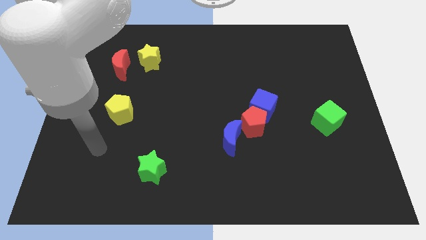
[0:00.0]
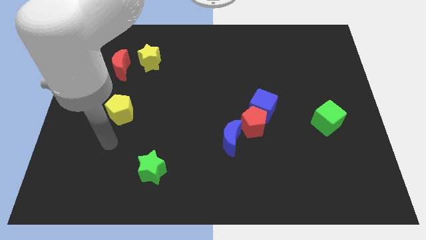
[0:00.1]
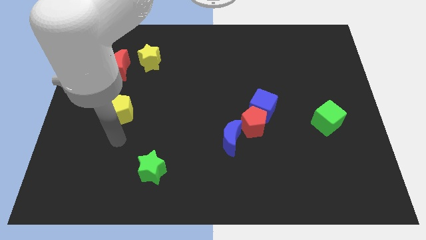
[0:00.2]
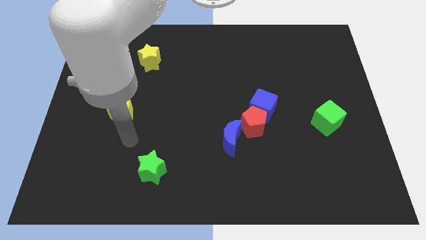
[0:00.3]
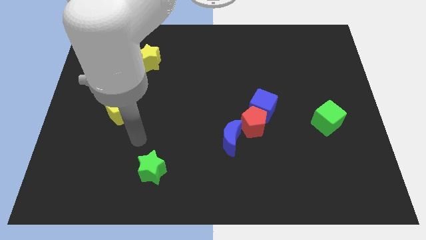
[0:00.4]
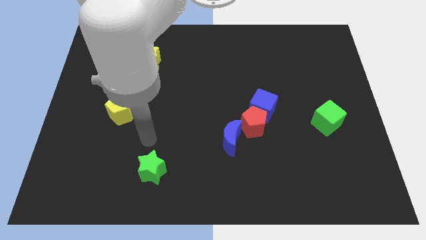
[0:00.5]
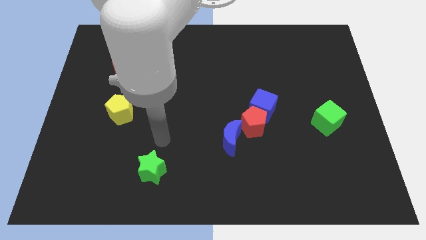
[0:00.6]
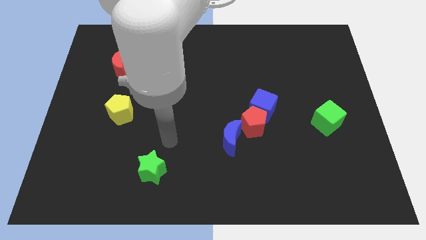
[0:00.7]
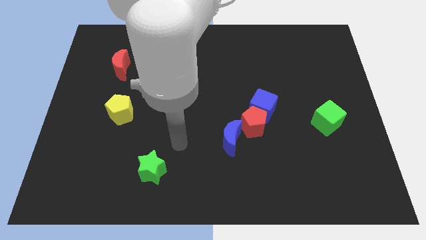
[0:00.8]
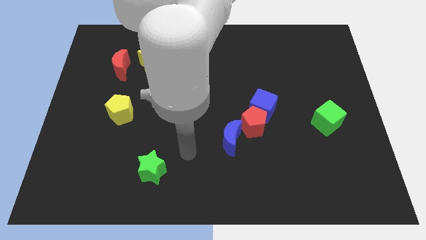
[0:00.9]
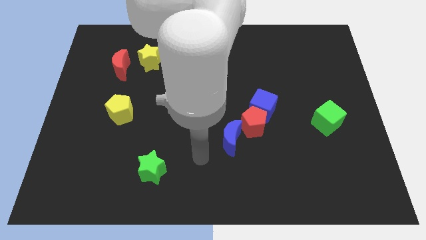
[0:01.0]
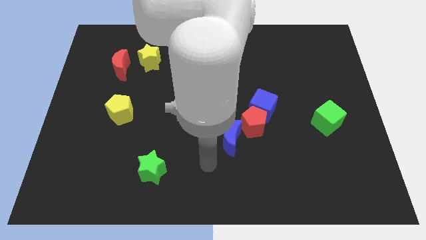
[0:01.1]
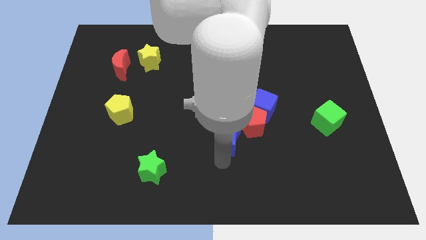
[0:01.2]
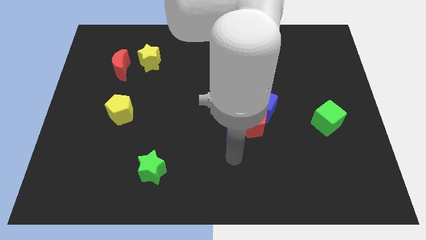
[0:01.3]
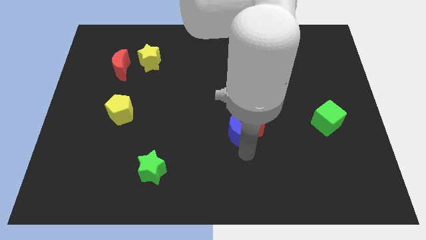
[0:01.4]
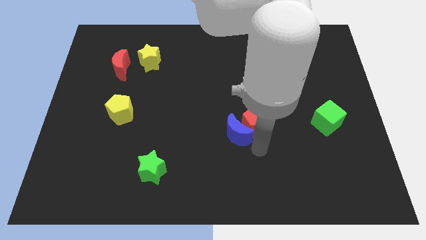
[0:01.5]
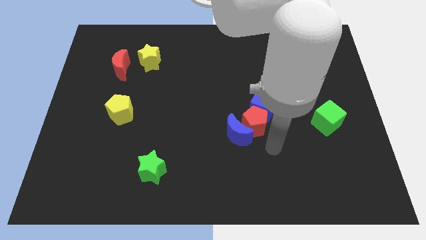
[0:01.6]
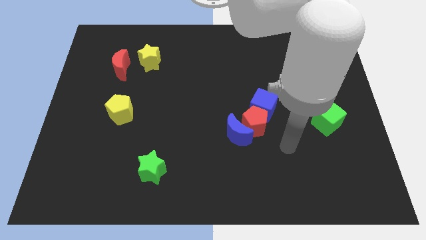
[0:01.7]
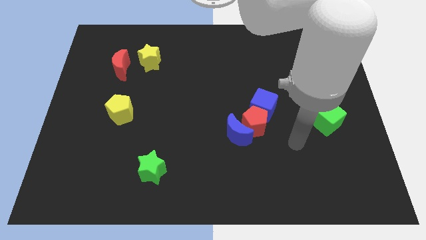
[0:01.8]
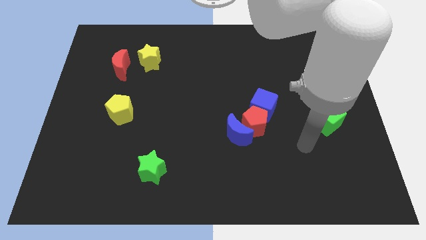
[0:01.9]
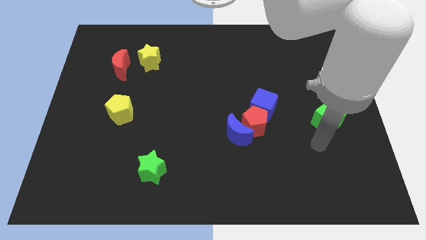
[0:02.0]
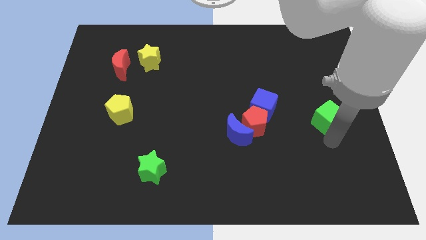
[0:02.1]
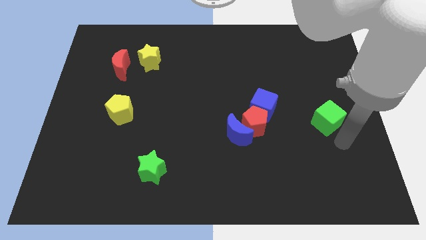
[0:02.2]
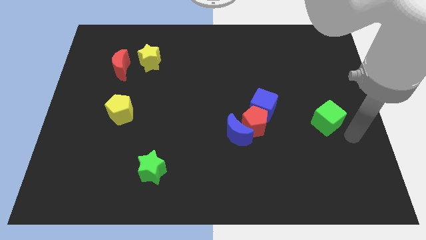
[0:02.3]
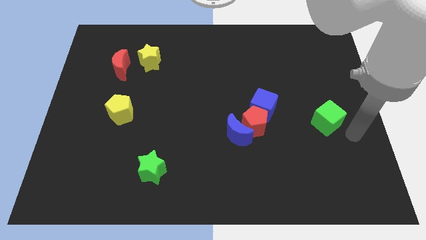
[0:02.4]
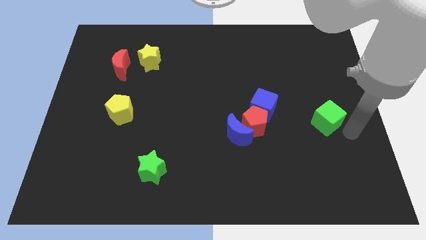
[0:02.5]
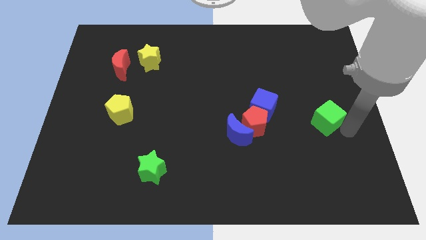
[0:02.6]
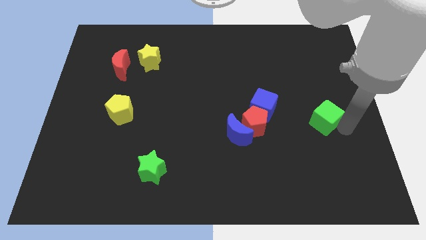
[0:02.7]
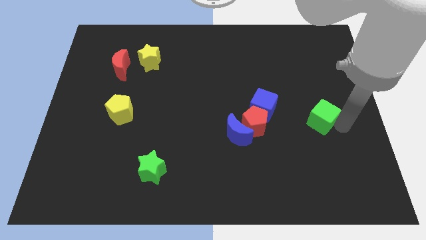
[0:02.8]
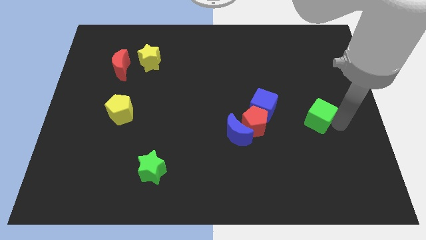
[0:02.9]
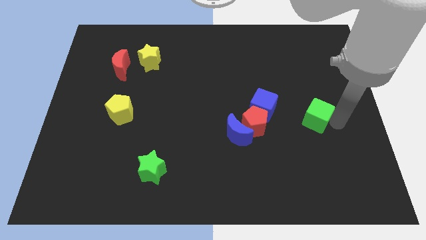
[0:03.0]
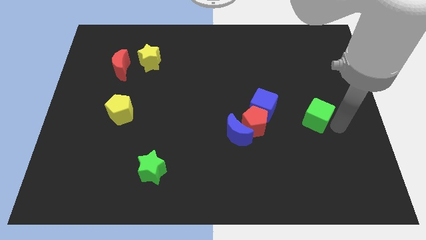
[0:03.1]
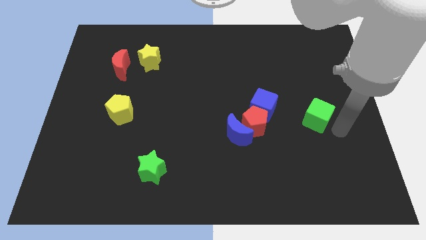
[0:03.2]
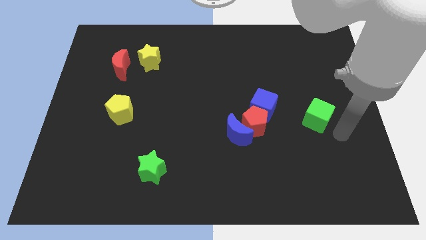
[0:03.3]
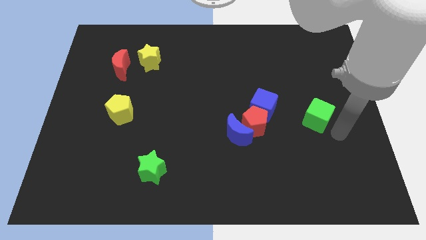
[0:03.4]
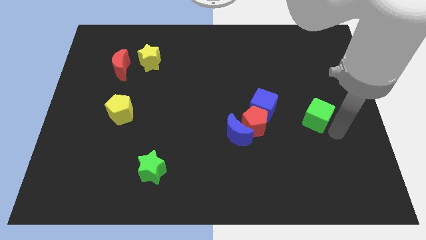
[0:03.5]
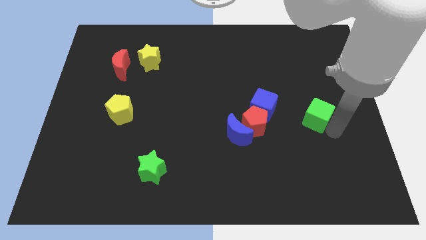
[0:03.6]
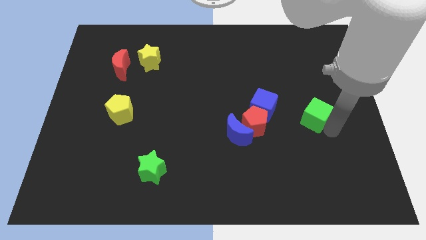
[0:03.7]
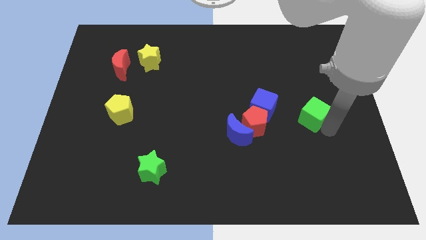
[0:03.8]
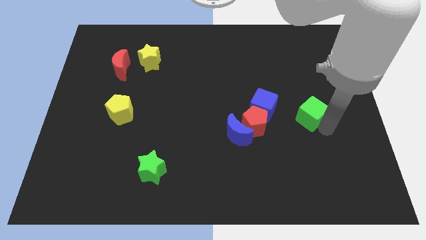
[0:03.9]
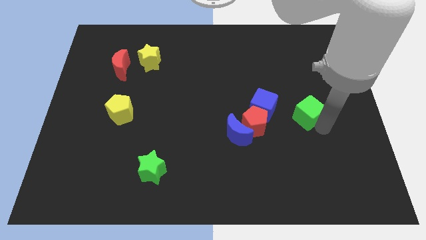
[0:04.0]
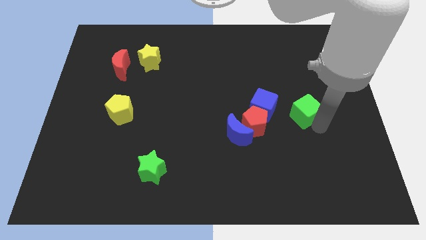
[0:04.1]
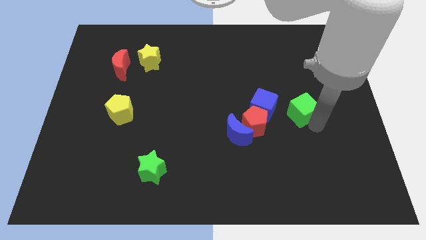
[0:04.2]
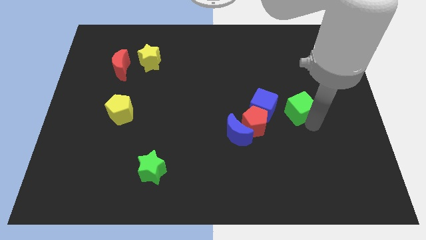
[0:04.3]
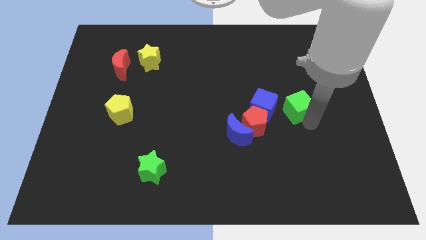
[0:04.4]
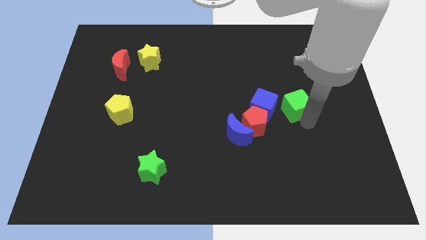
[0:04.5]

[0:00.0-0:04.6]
push the green cube slightly diagonally up and left

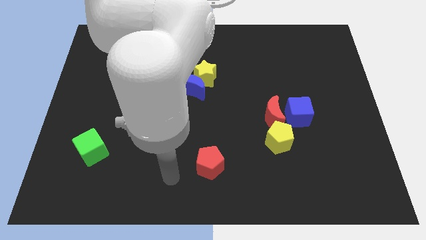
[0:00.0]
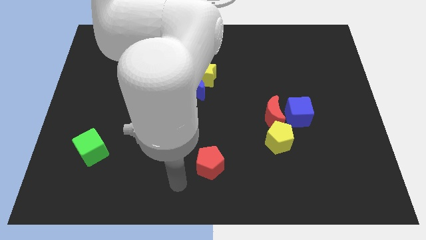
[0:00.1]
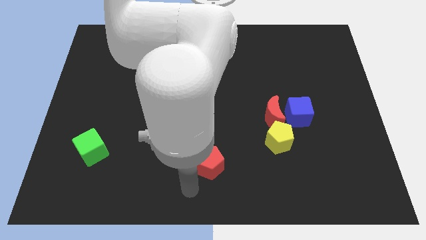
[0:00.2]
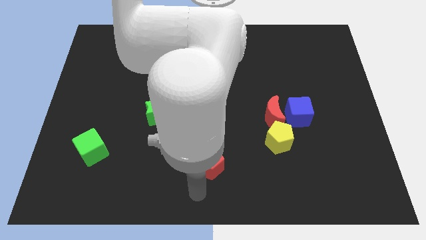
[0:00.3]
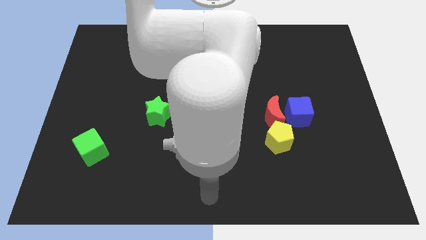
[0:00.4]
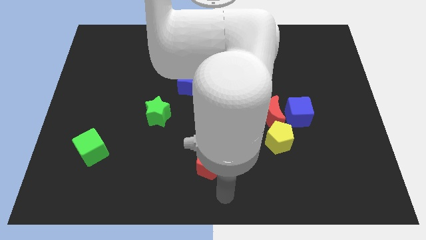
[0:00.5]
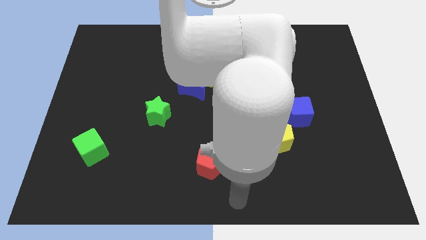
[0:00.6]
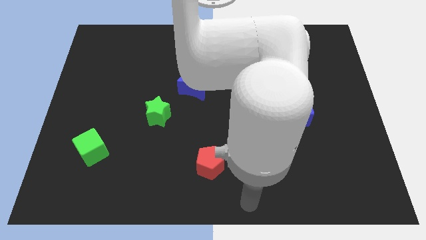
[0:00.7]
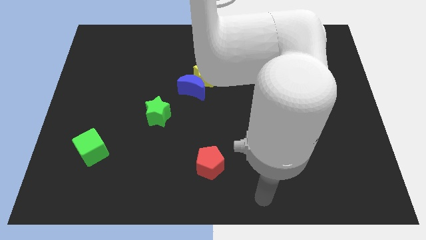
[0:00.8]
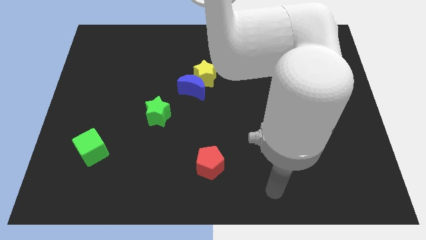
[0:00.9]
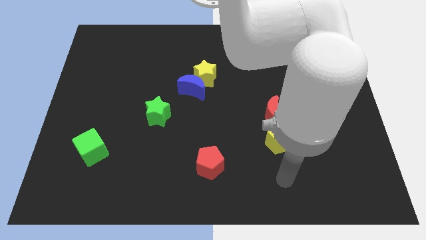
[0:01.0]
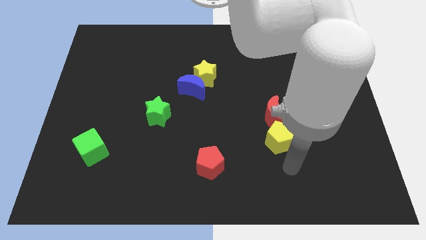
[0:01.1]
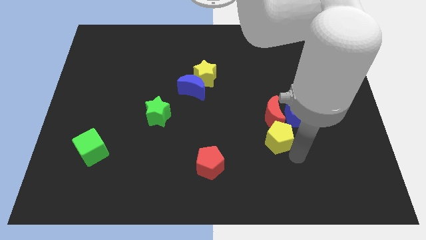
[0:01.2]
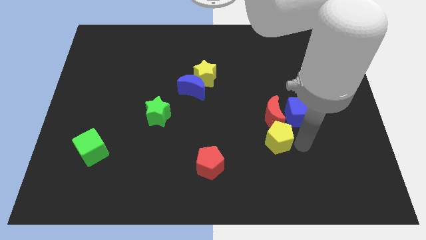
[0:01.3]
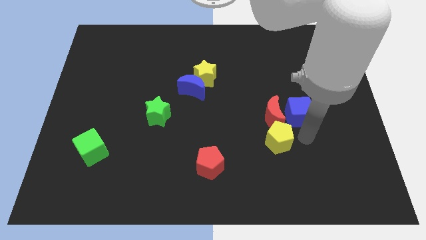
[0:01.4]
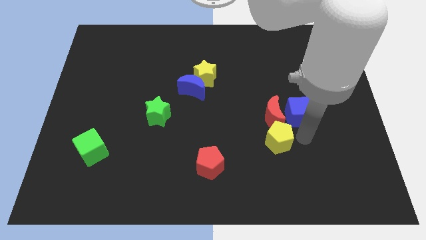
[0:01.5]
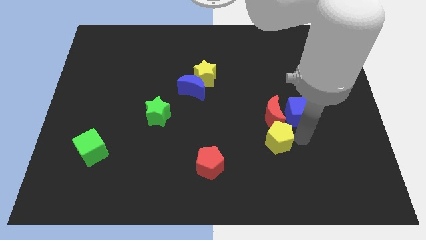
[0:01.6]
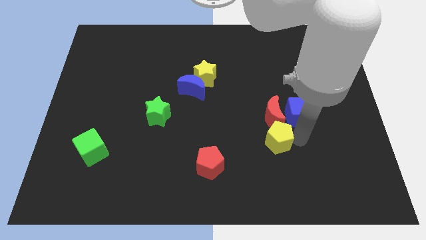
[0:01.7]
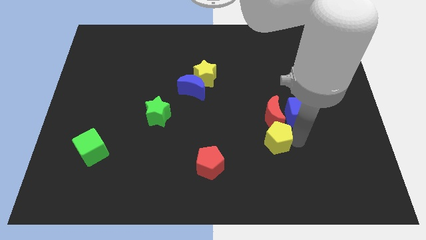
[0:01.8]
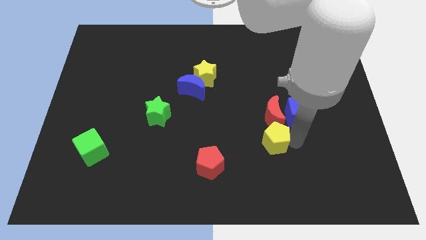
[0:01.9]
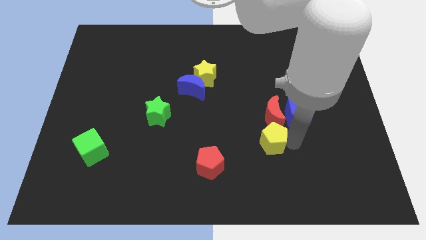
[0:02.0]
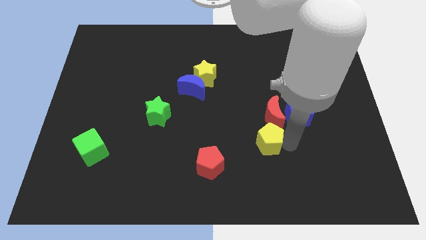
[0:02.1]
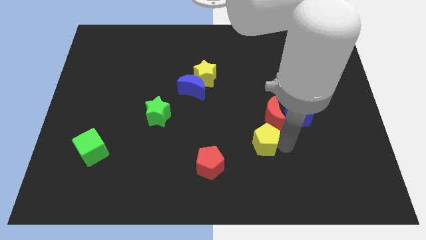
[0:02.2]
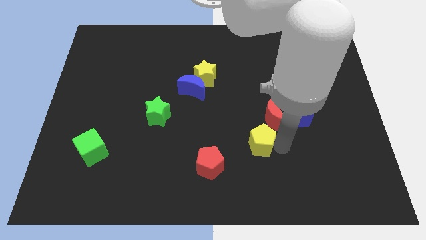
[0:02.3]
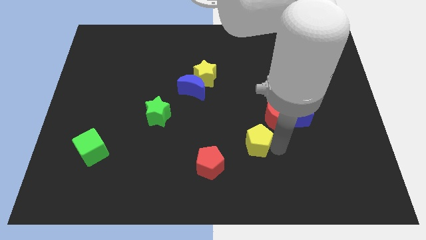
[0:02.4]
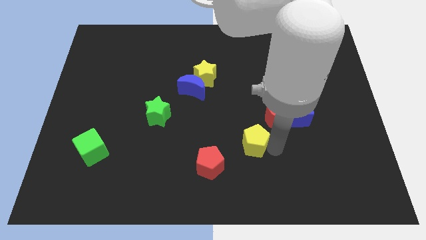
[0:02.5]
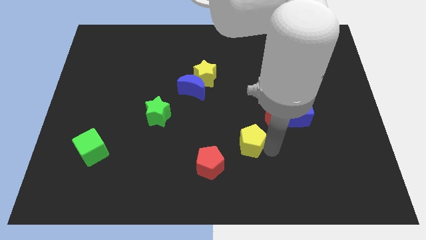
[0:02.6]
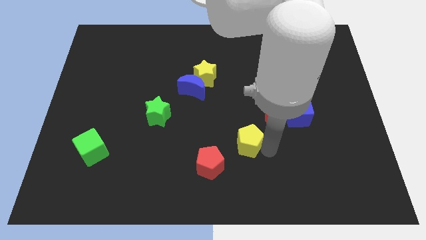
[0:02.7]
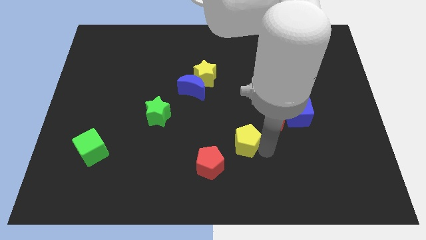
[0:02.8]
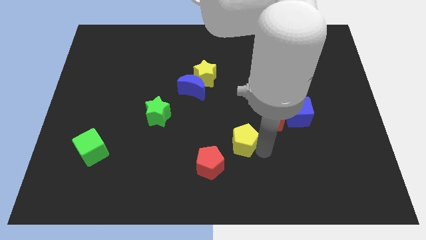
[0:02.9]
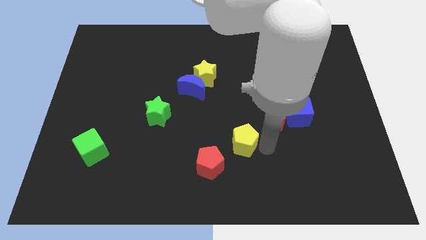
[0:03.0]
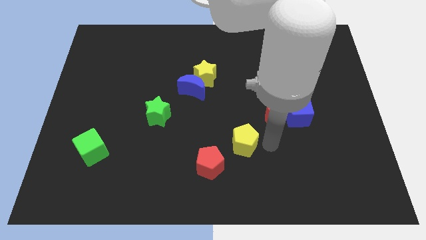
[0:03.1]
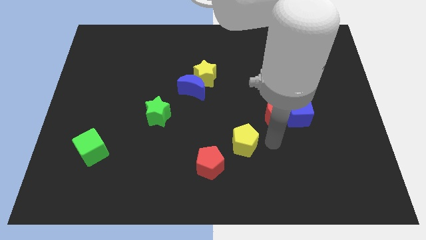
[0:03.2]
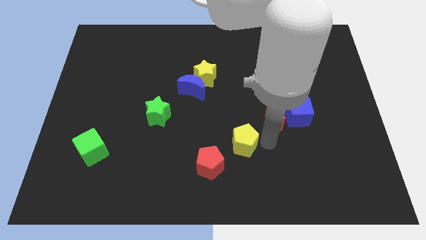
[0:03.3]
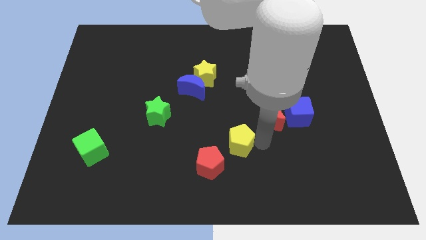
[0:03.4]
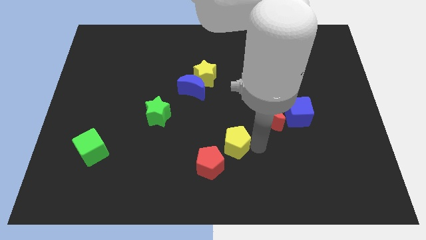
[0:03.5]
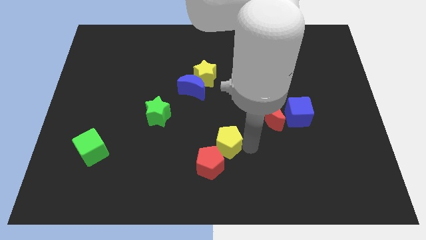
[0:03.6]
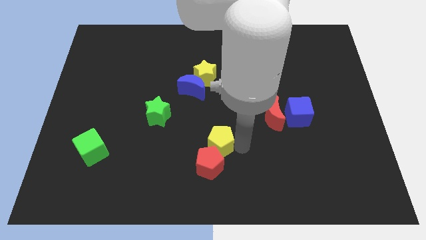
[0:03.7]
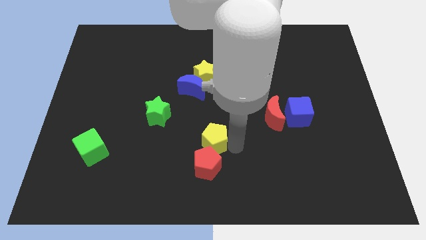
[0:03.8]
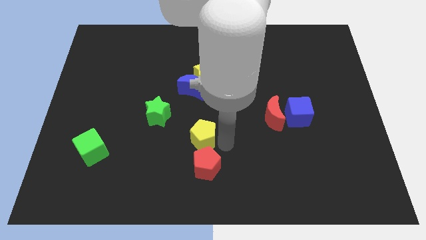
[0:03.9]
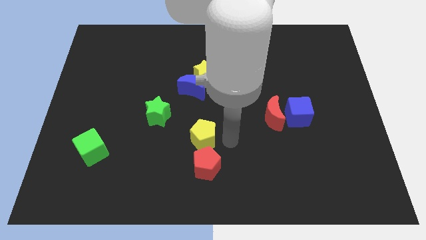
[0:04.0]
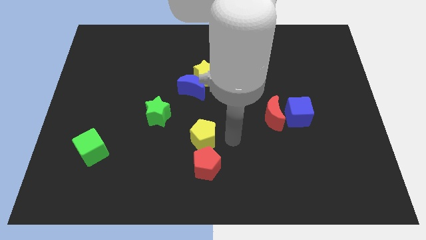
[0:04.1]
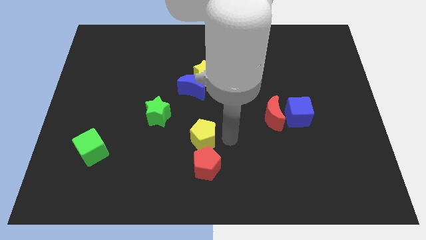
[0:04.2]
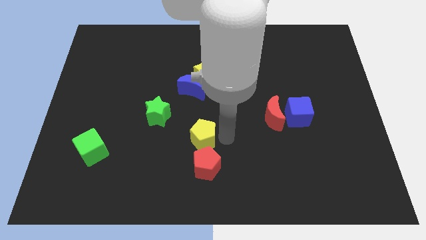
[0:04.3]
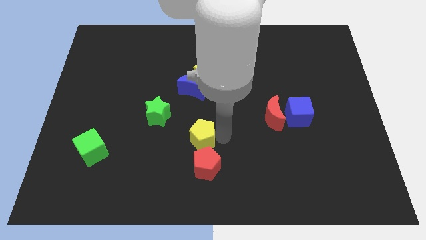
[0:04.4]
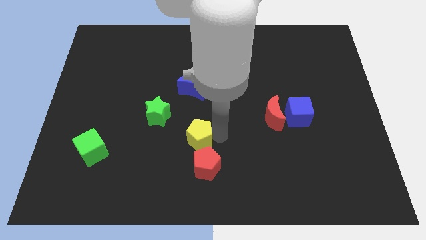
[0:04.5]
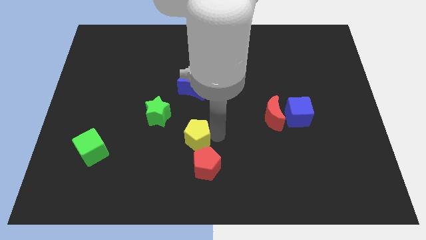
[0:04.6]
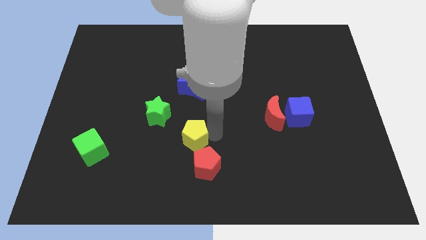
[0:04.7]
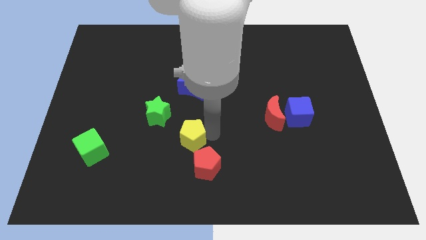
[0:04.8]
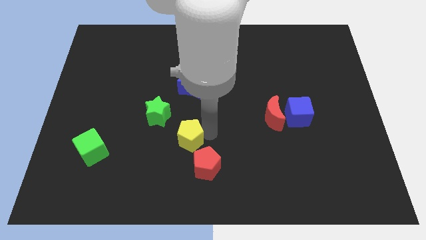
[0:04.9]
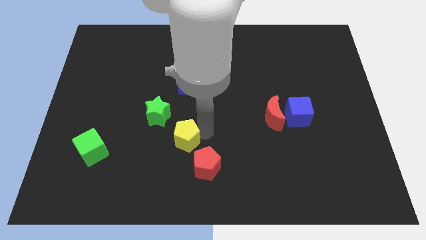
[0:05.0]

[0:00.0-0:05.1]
push the yellow pentagon left
